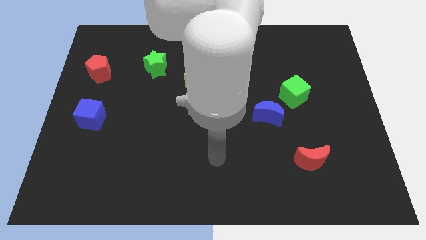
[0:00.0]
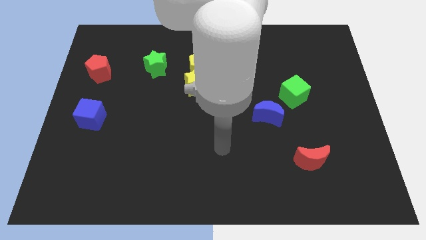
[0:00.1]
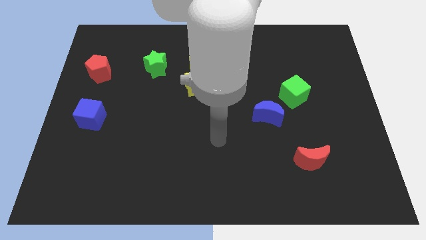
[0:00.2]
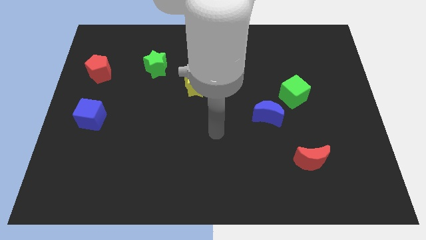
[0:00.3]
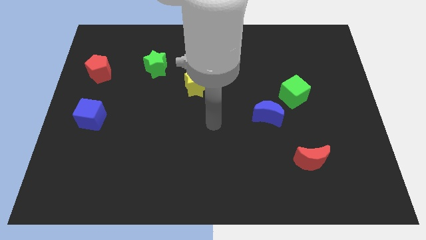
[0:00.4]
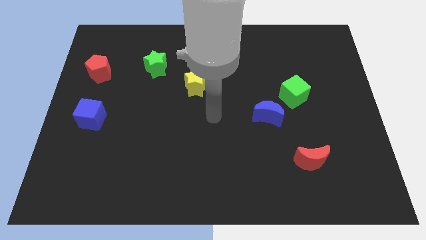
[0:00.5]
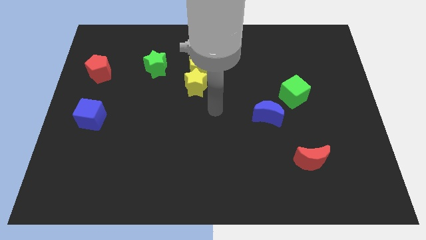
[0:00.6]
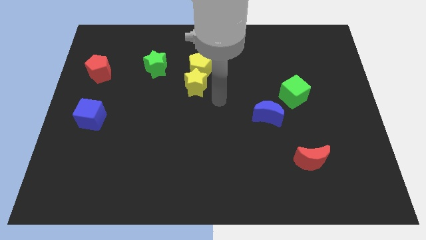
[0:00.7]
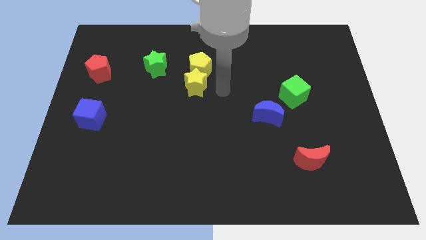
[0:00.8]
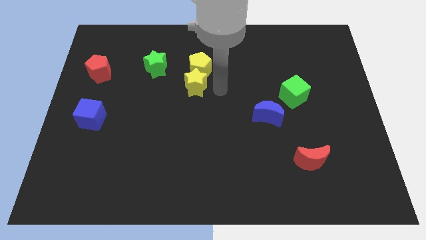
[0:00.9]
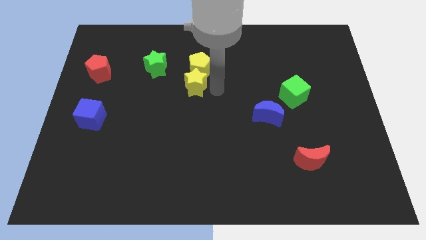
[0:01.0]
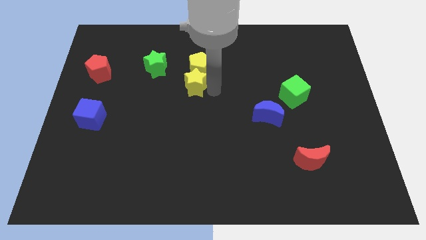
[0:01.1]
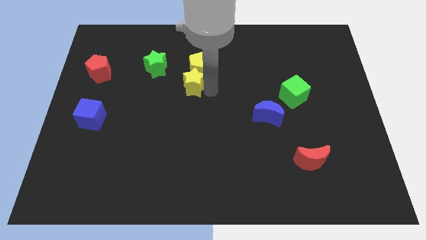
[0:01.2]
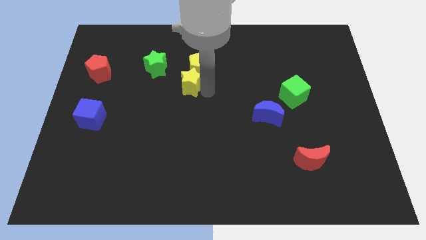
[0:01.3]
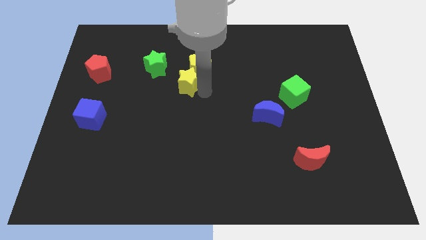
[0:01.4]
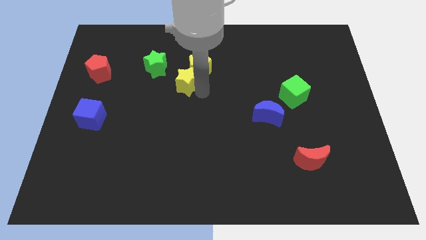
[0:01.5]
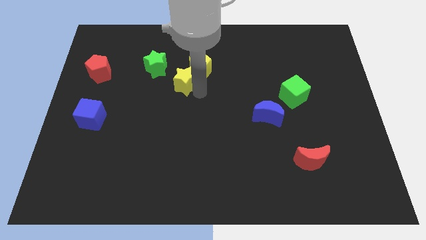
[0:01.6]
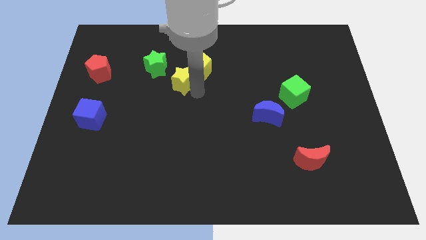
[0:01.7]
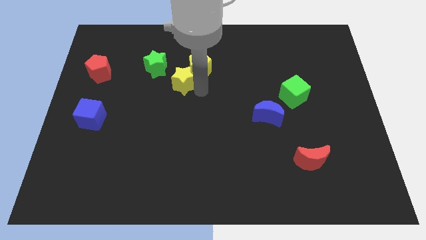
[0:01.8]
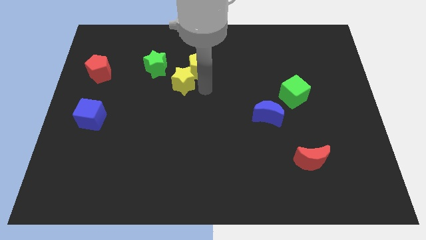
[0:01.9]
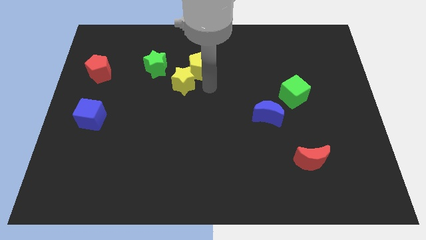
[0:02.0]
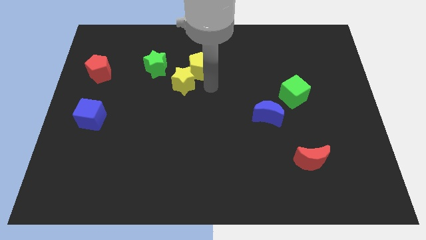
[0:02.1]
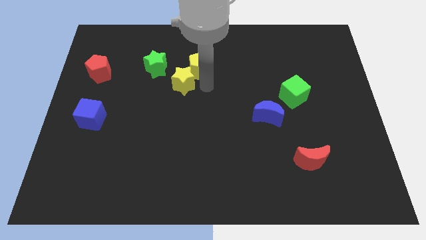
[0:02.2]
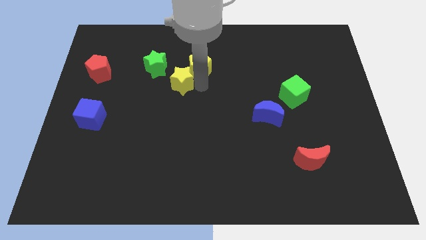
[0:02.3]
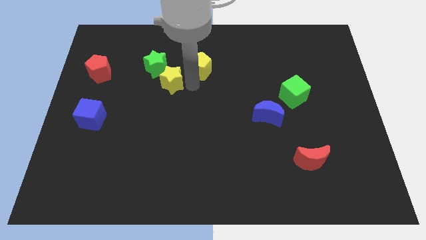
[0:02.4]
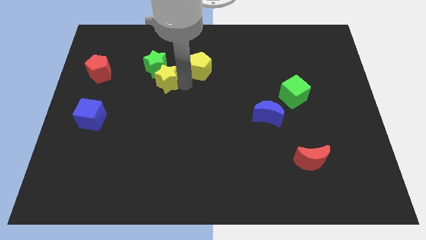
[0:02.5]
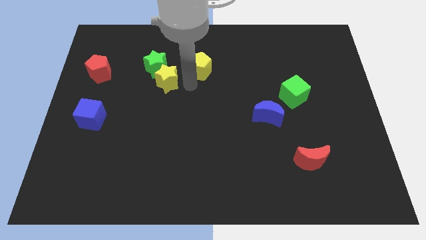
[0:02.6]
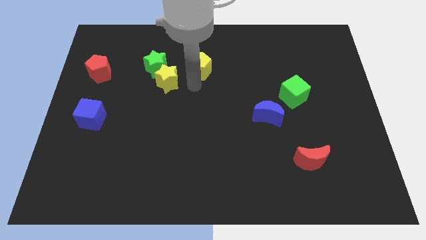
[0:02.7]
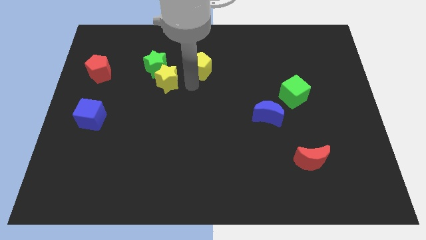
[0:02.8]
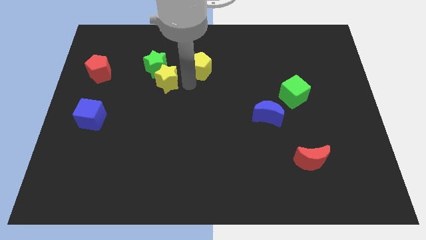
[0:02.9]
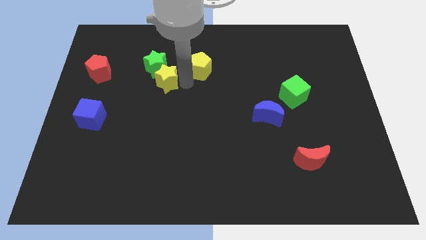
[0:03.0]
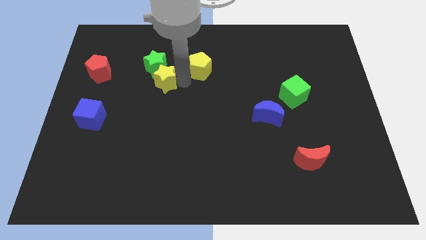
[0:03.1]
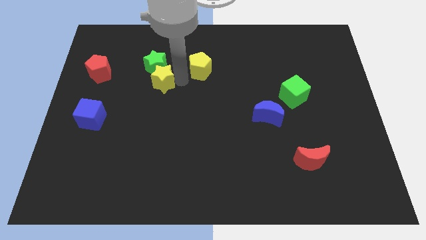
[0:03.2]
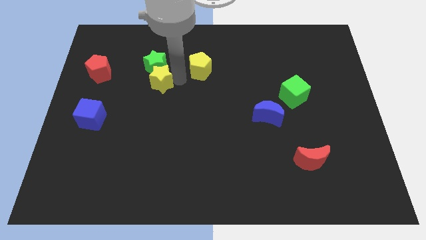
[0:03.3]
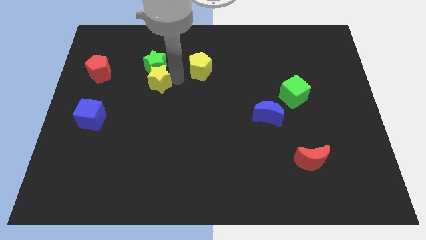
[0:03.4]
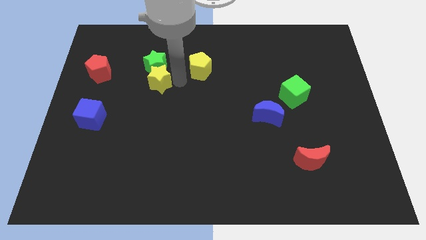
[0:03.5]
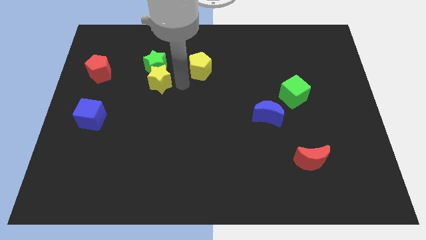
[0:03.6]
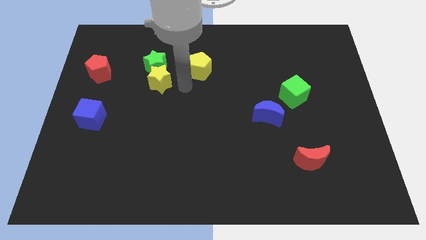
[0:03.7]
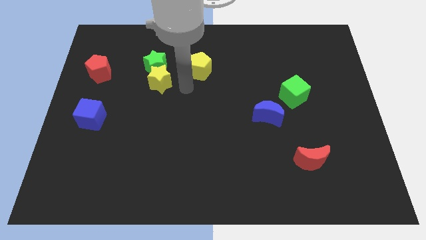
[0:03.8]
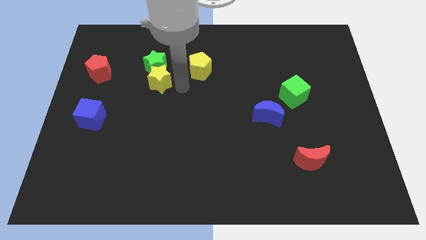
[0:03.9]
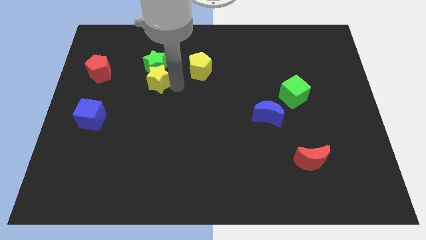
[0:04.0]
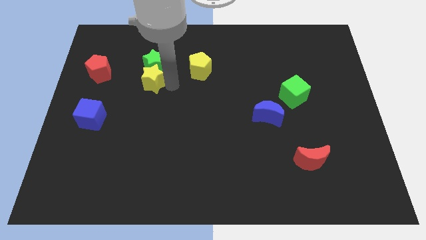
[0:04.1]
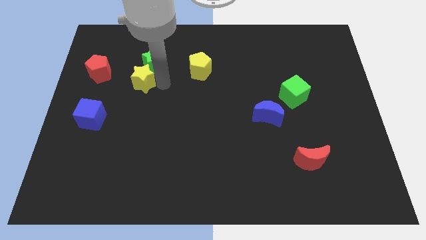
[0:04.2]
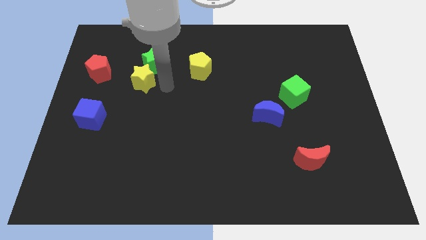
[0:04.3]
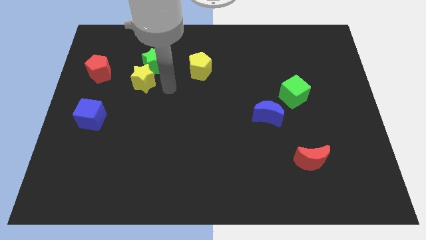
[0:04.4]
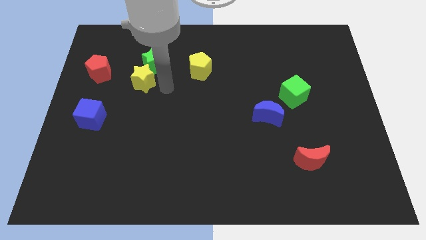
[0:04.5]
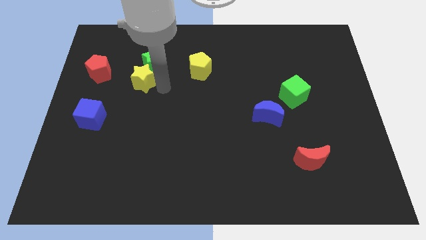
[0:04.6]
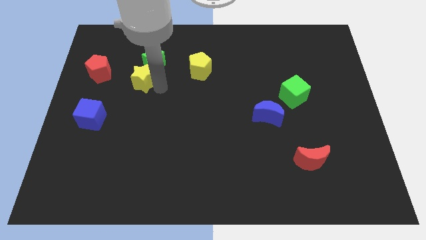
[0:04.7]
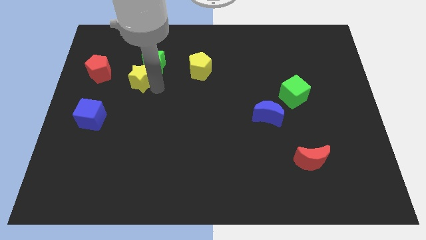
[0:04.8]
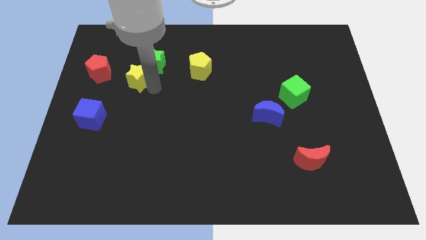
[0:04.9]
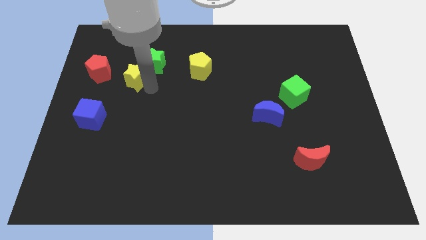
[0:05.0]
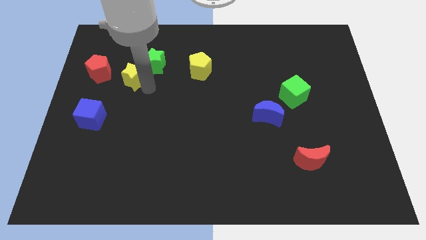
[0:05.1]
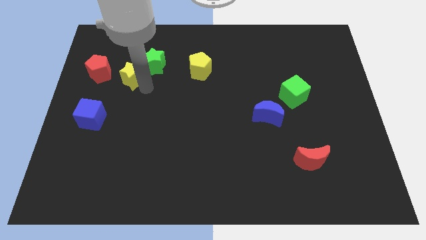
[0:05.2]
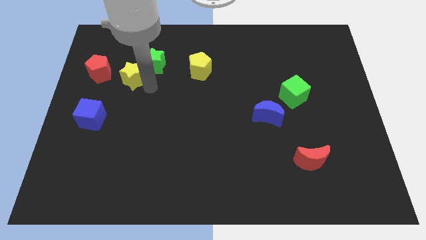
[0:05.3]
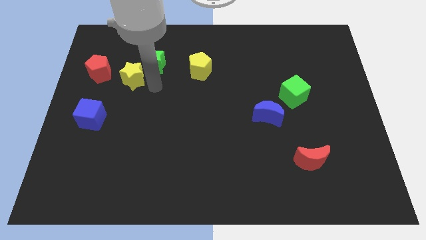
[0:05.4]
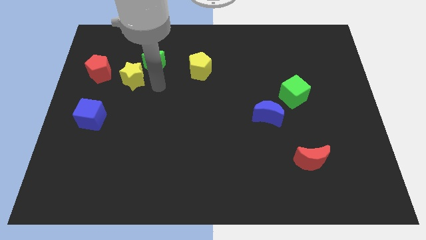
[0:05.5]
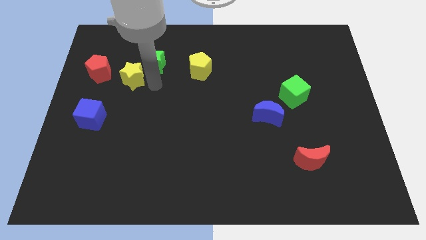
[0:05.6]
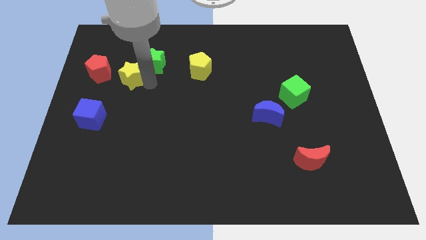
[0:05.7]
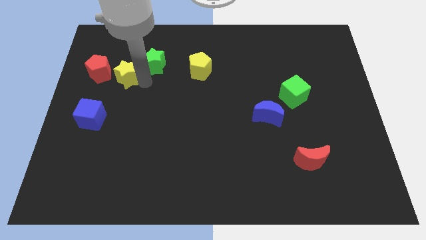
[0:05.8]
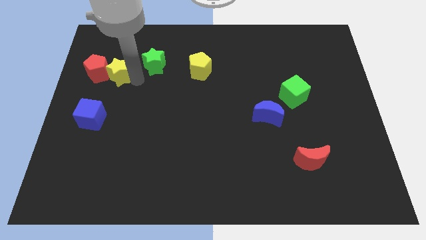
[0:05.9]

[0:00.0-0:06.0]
move the yellow star close to the red pentagon

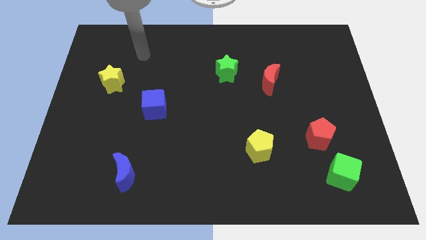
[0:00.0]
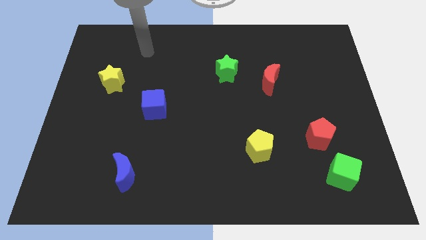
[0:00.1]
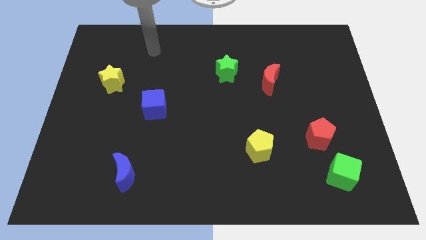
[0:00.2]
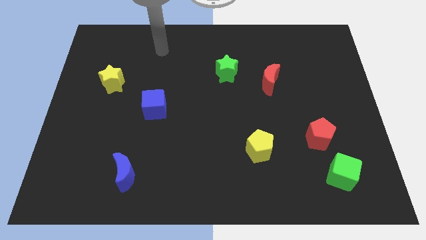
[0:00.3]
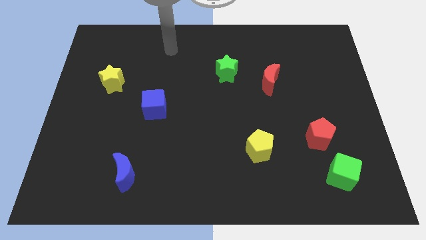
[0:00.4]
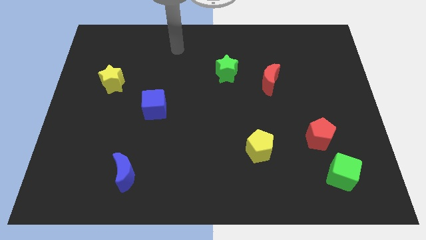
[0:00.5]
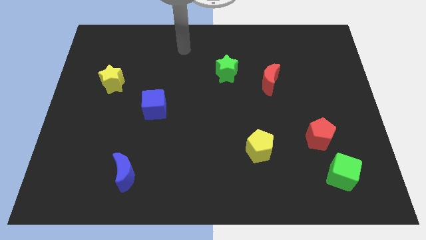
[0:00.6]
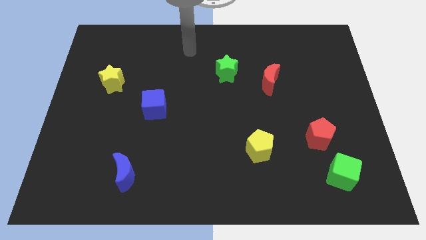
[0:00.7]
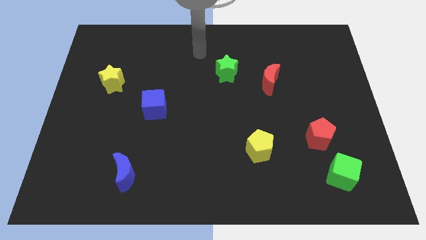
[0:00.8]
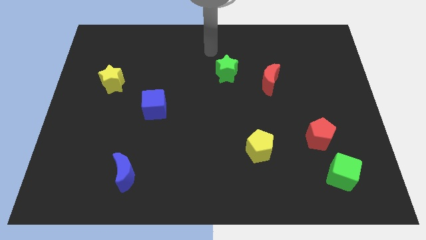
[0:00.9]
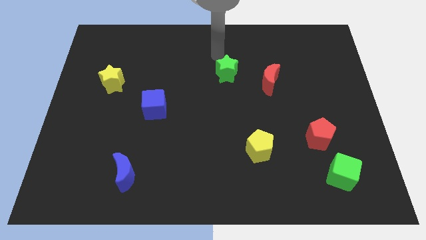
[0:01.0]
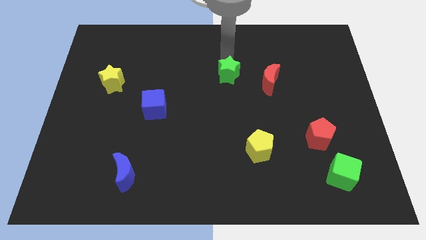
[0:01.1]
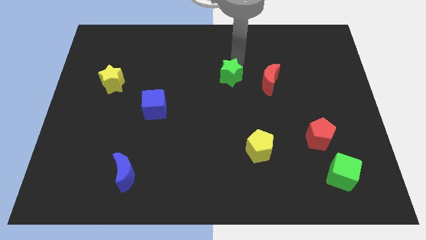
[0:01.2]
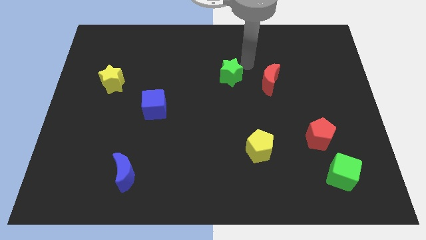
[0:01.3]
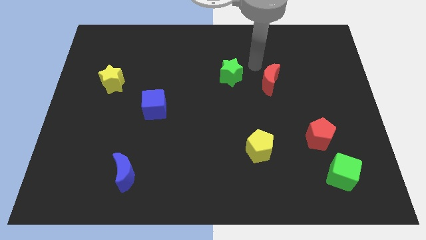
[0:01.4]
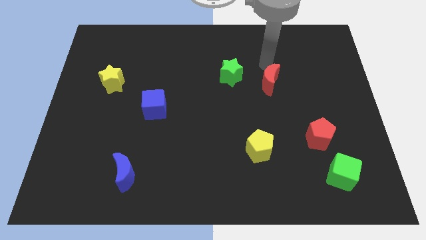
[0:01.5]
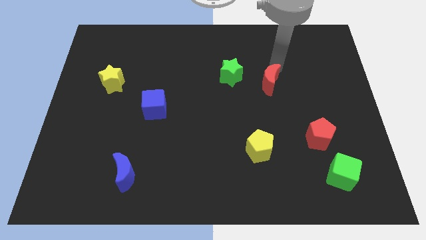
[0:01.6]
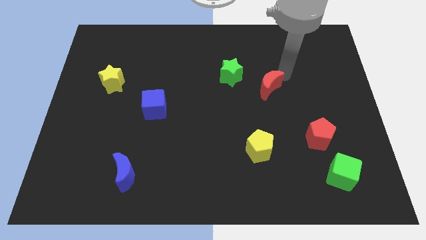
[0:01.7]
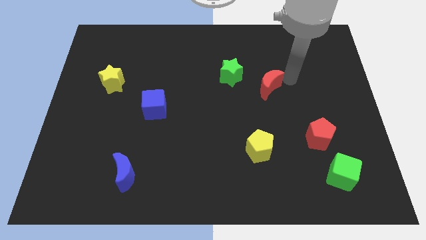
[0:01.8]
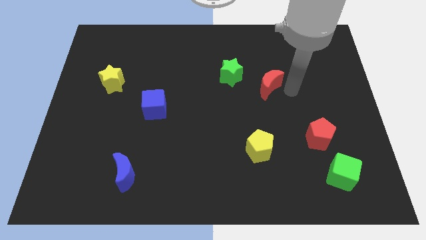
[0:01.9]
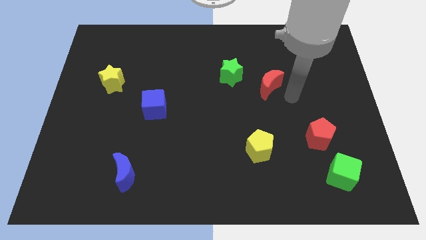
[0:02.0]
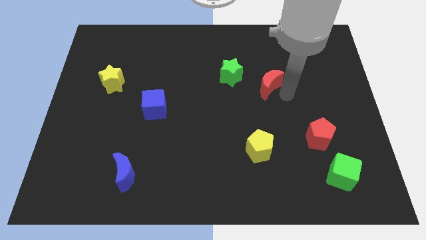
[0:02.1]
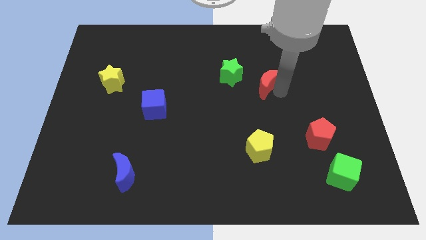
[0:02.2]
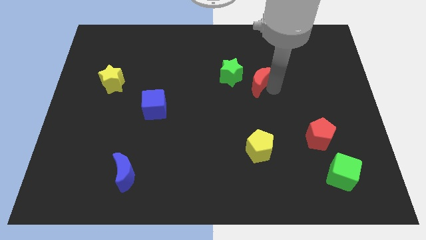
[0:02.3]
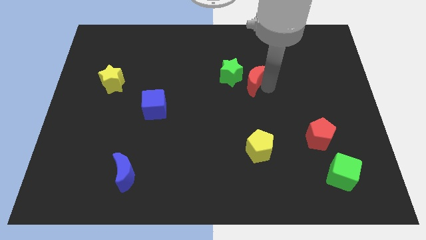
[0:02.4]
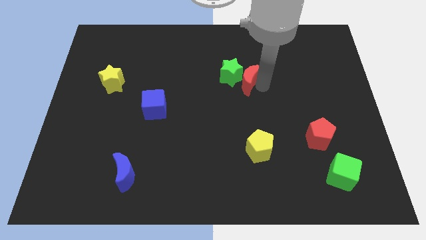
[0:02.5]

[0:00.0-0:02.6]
put the red moon towards the green star
